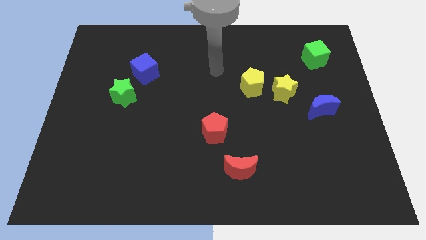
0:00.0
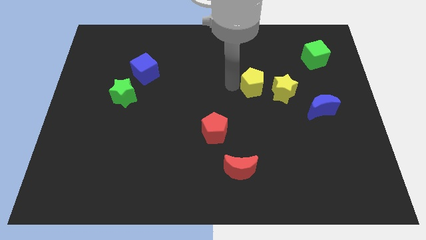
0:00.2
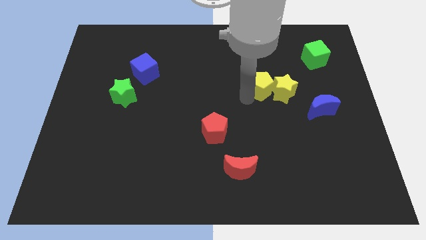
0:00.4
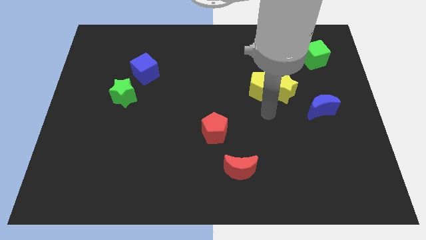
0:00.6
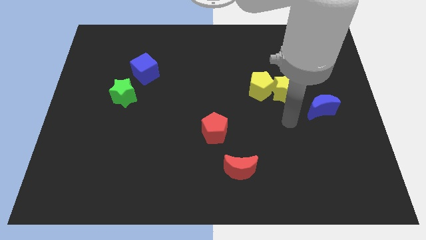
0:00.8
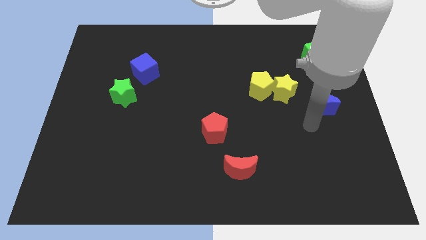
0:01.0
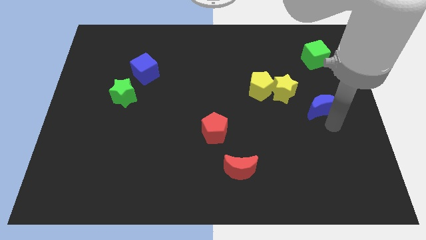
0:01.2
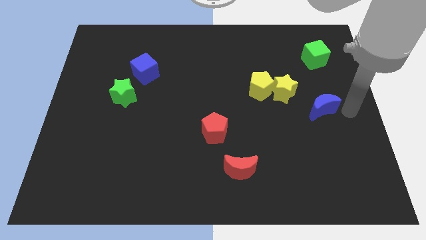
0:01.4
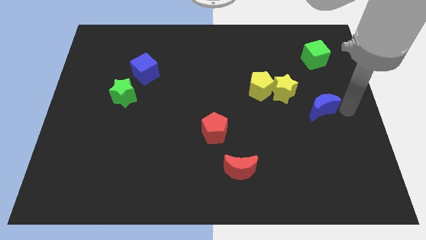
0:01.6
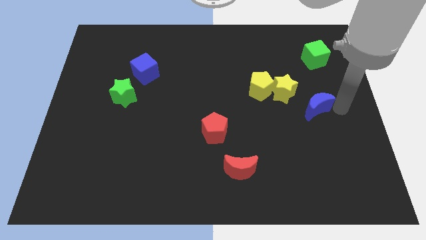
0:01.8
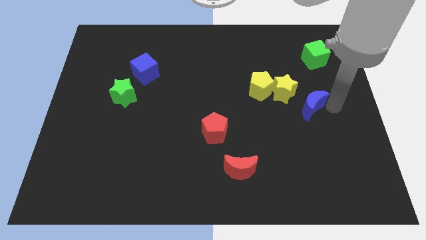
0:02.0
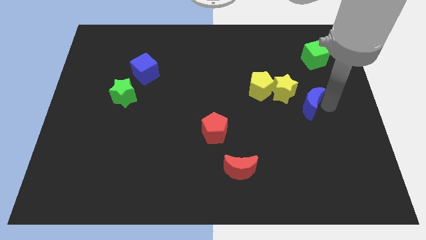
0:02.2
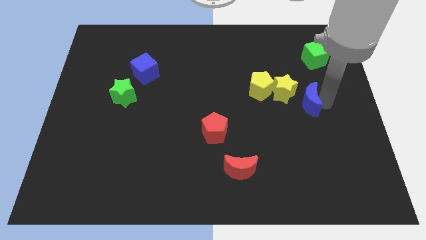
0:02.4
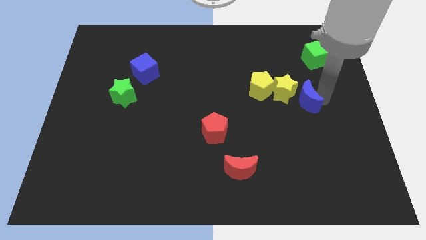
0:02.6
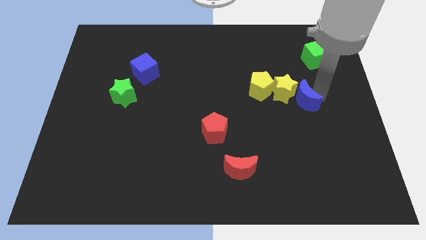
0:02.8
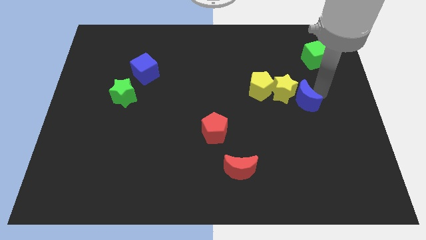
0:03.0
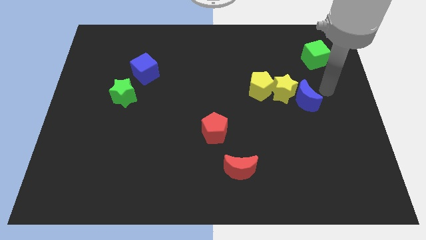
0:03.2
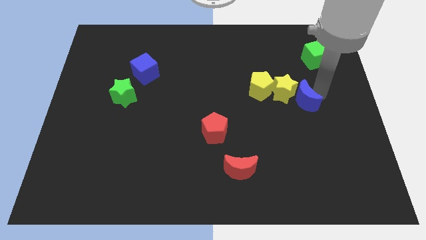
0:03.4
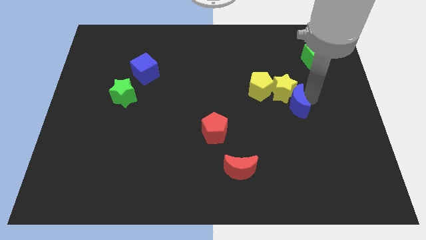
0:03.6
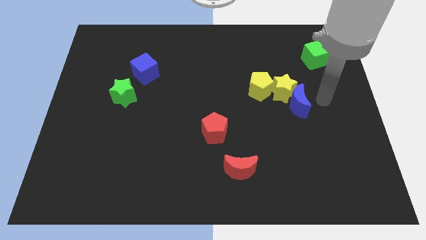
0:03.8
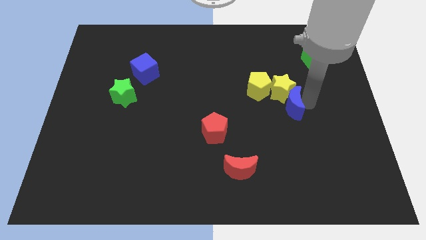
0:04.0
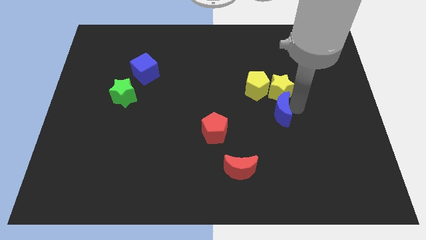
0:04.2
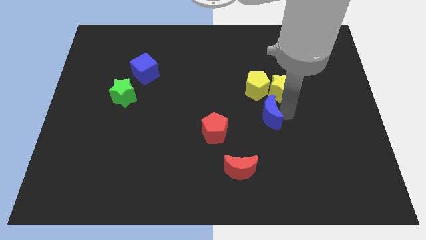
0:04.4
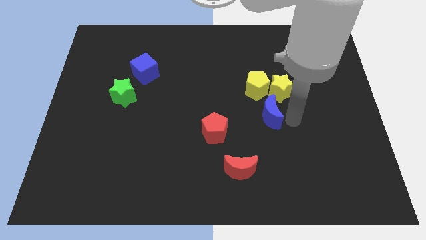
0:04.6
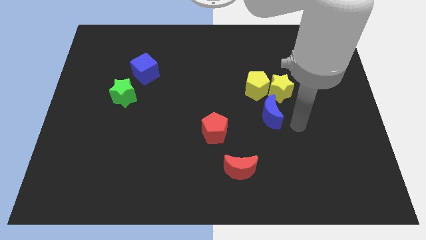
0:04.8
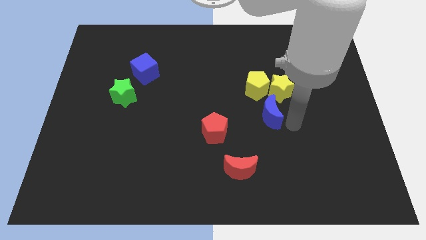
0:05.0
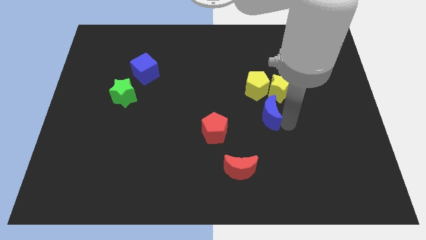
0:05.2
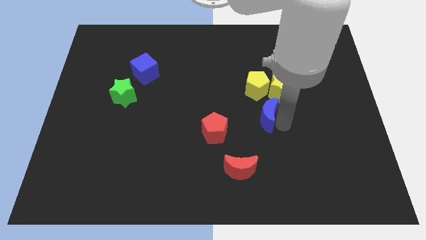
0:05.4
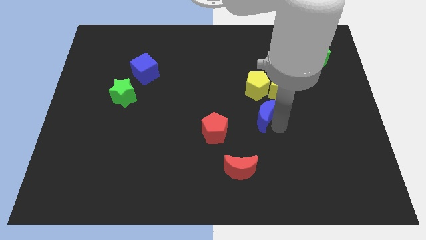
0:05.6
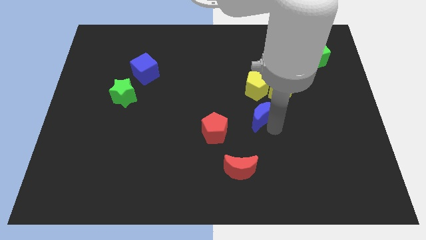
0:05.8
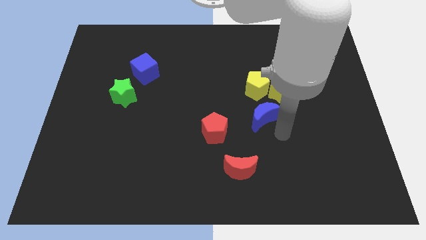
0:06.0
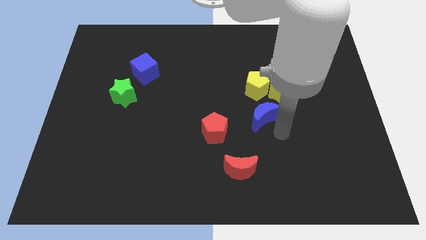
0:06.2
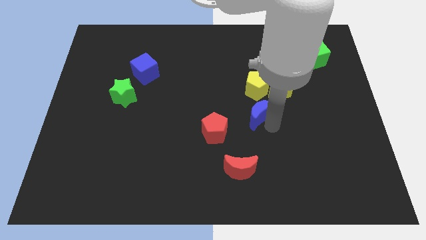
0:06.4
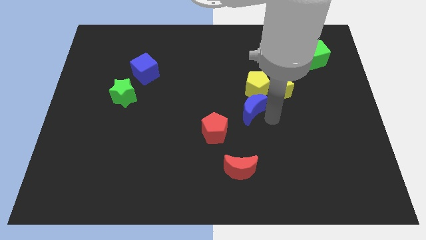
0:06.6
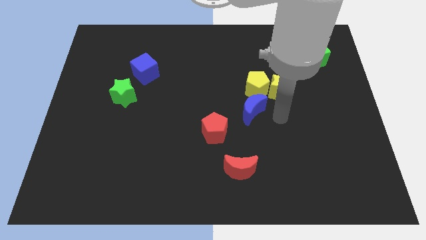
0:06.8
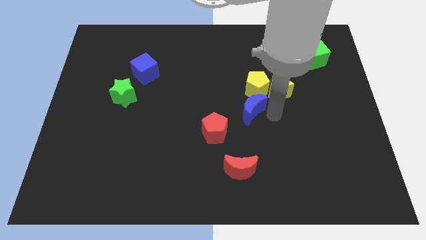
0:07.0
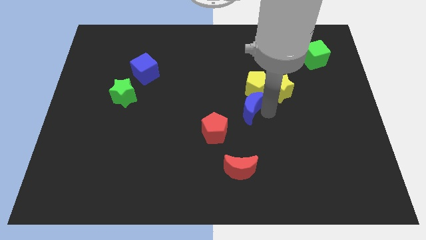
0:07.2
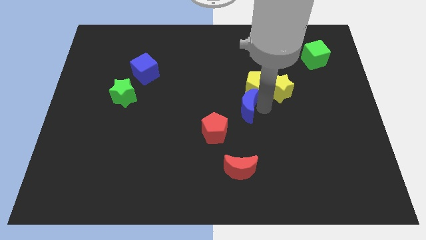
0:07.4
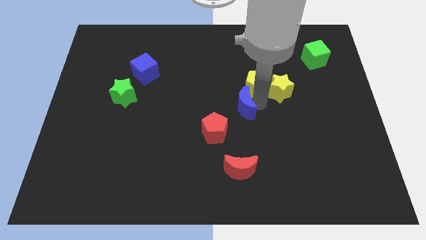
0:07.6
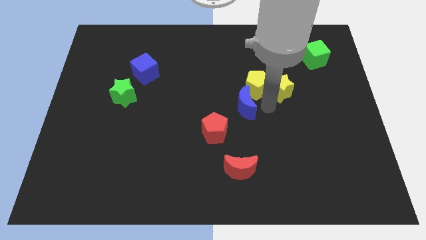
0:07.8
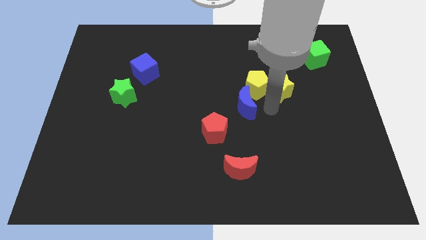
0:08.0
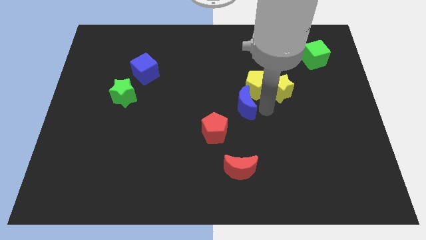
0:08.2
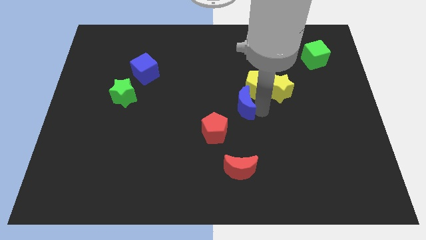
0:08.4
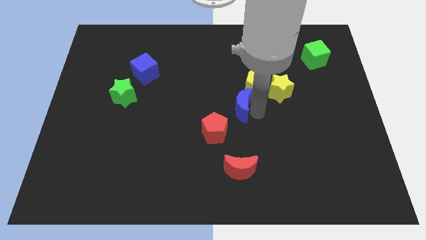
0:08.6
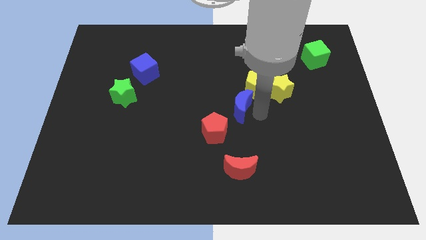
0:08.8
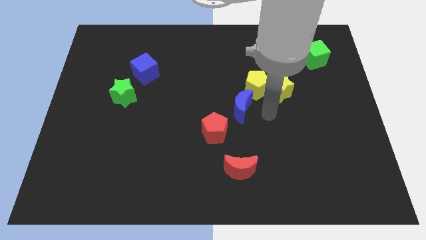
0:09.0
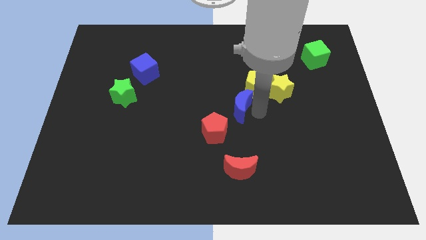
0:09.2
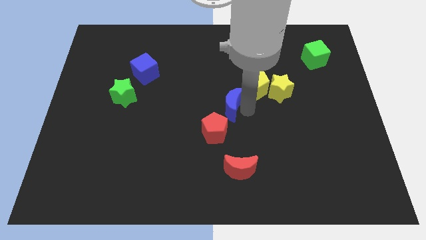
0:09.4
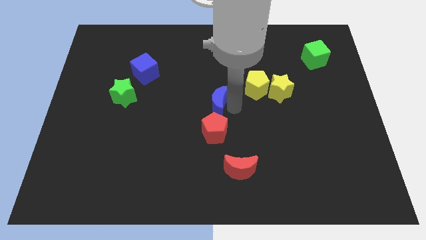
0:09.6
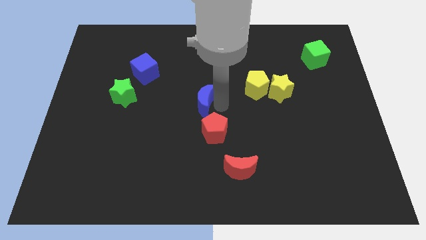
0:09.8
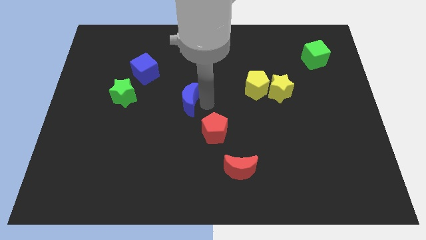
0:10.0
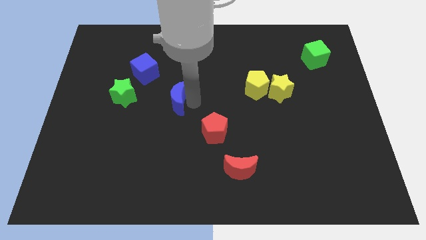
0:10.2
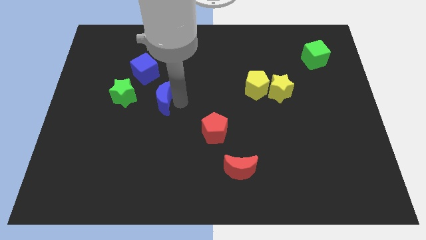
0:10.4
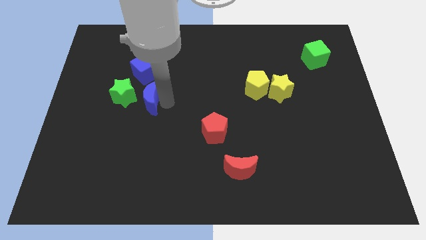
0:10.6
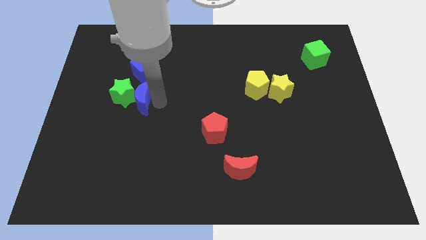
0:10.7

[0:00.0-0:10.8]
move the blue moon towards the green star

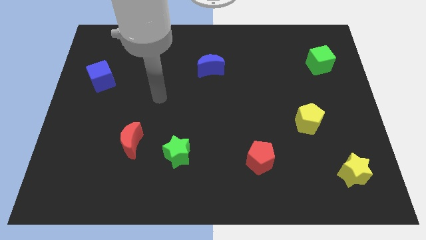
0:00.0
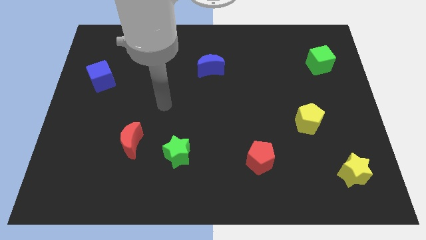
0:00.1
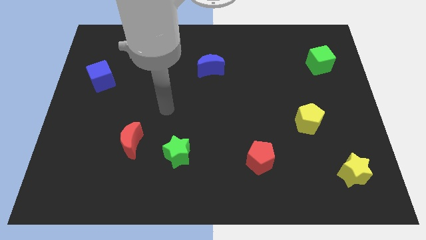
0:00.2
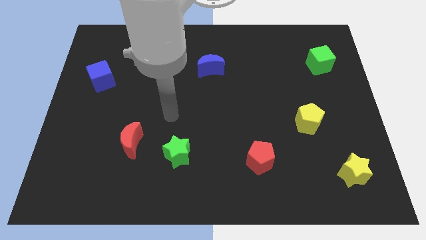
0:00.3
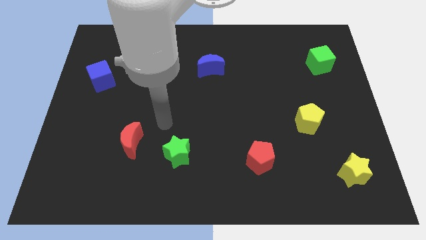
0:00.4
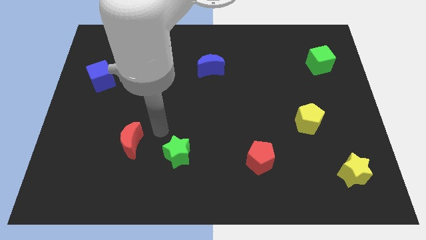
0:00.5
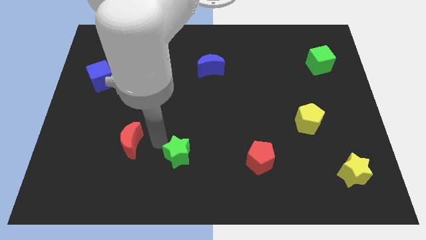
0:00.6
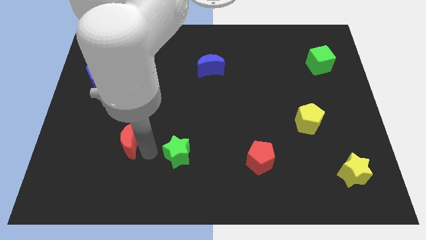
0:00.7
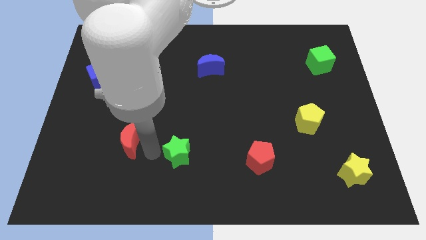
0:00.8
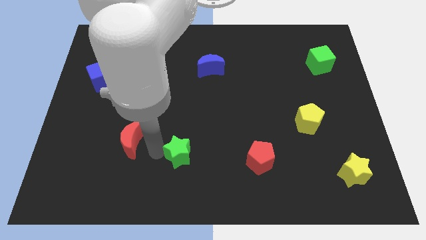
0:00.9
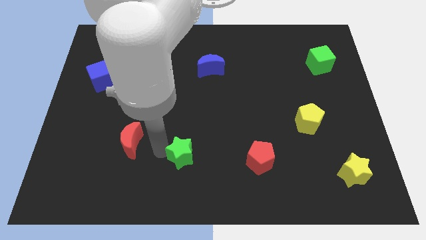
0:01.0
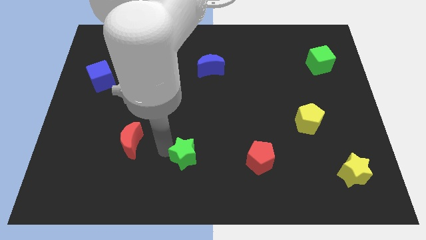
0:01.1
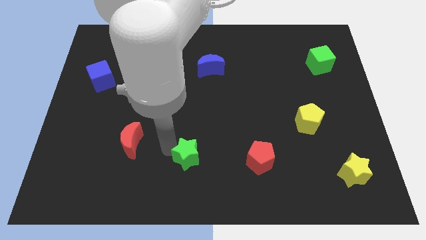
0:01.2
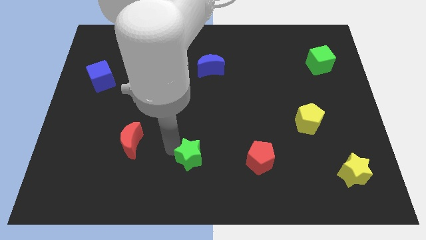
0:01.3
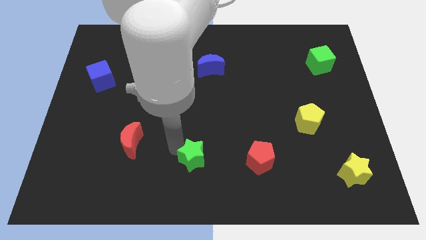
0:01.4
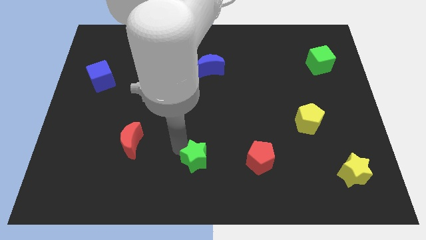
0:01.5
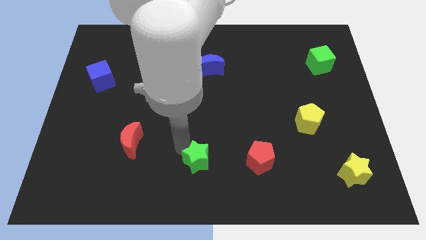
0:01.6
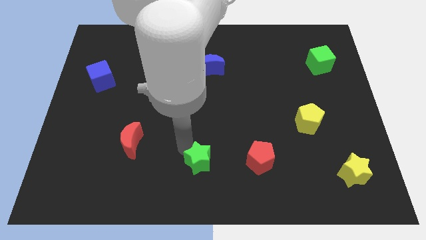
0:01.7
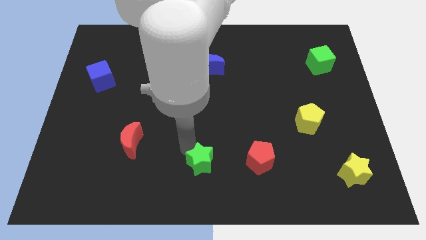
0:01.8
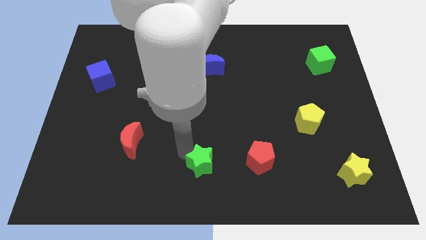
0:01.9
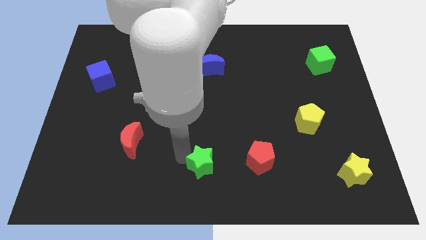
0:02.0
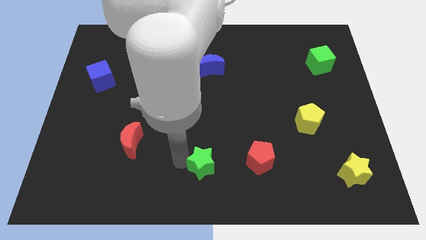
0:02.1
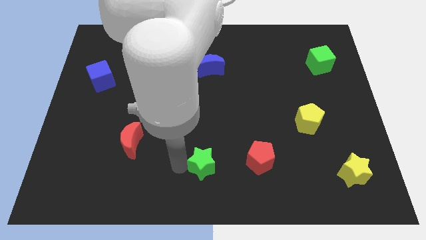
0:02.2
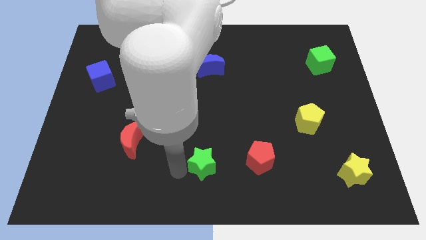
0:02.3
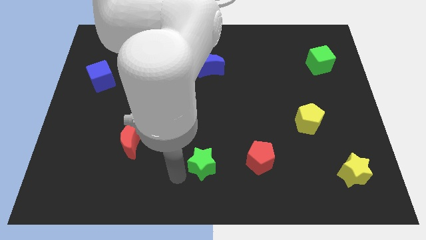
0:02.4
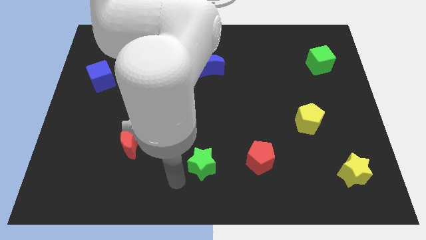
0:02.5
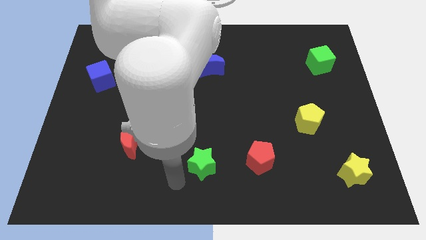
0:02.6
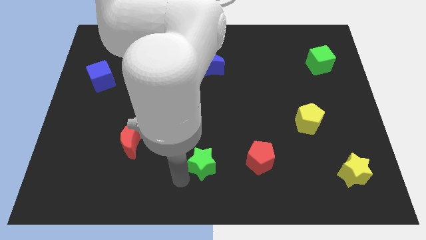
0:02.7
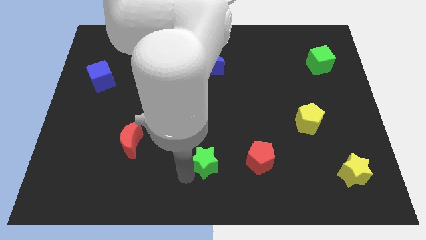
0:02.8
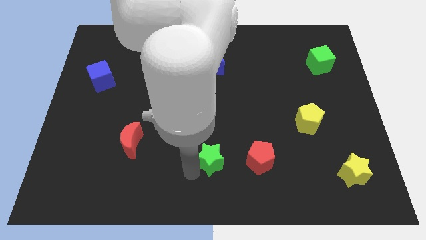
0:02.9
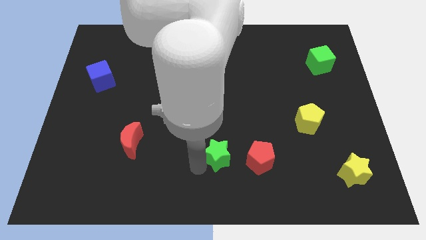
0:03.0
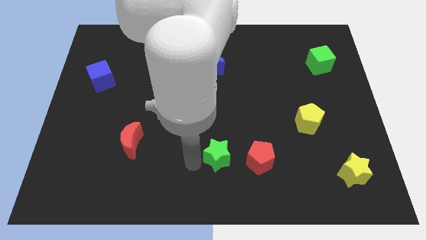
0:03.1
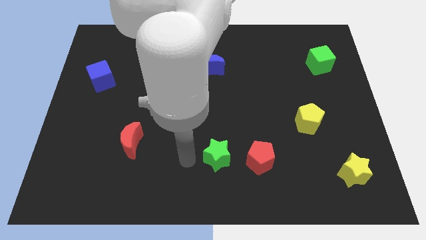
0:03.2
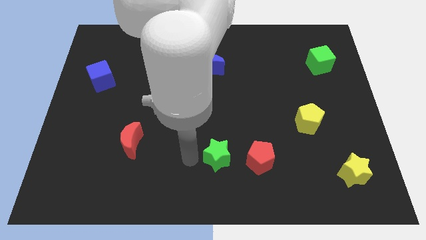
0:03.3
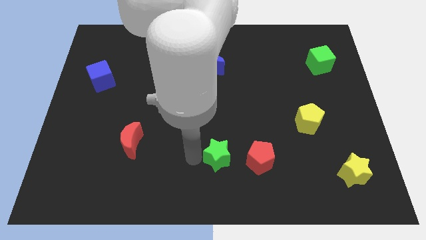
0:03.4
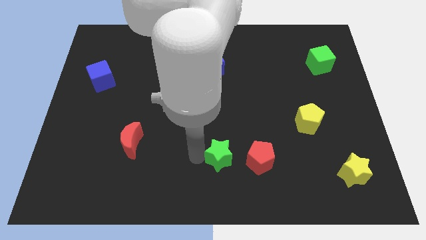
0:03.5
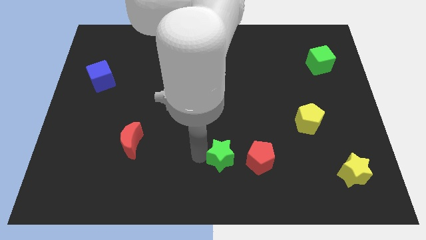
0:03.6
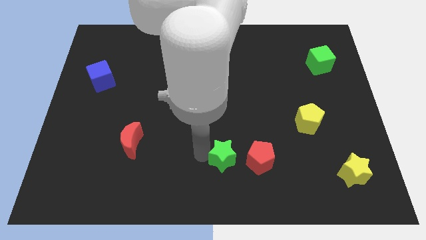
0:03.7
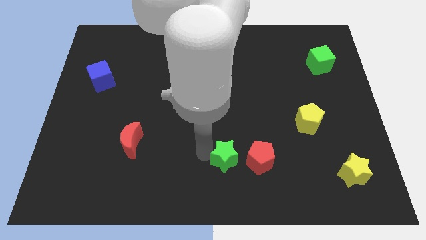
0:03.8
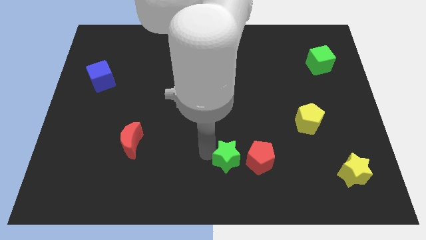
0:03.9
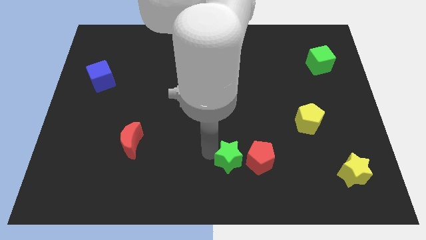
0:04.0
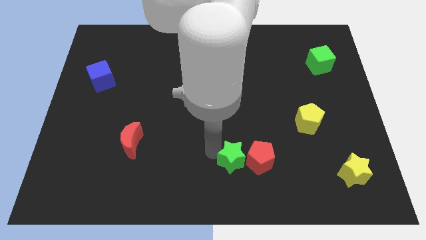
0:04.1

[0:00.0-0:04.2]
put the green star to the red pentagon
